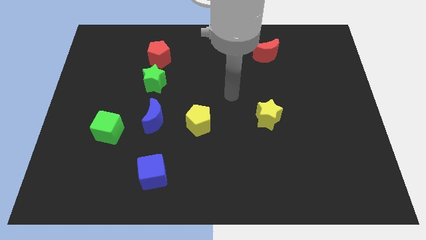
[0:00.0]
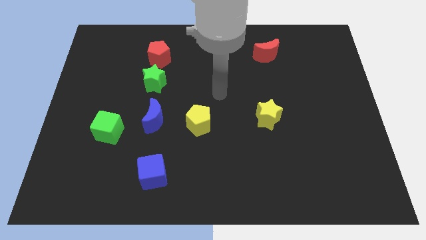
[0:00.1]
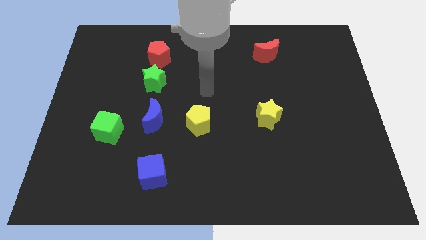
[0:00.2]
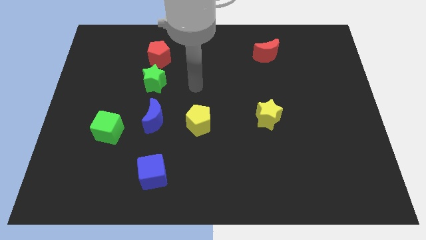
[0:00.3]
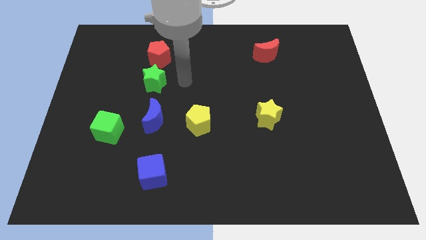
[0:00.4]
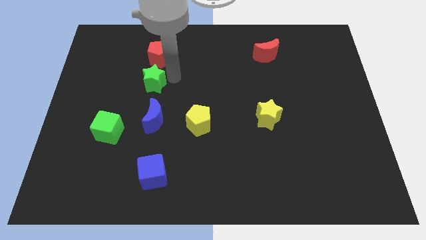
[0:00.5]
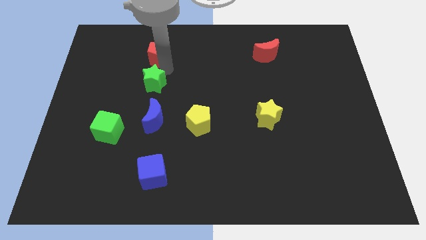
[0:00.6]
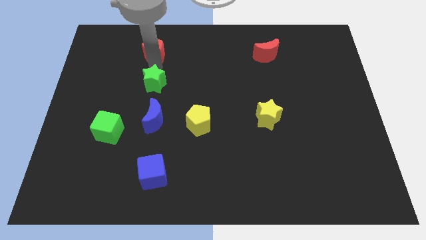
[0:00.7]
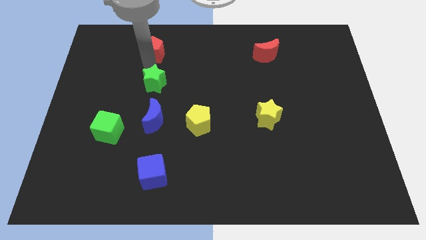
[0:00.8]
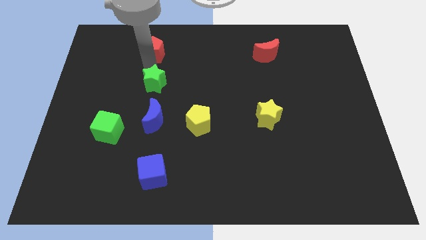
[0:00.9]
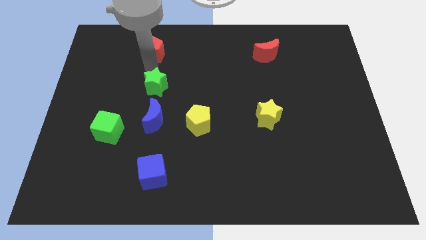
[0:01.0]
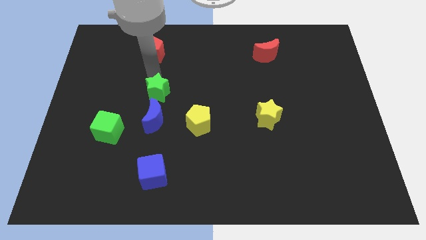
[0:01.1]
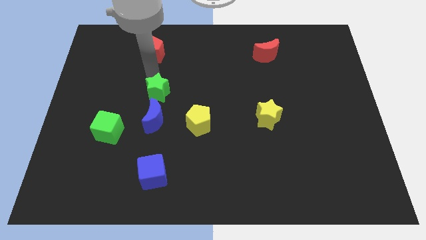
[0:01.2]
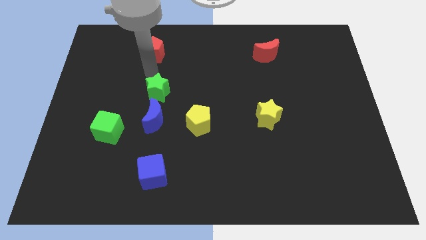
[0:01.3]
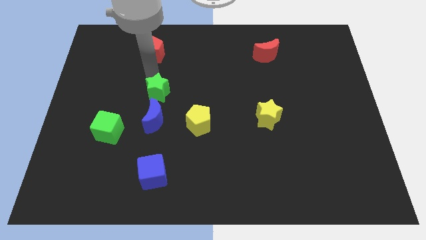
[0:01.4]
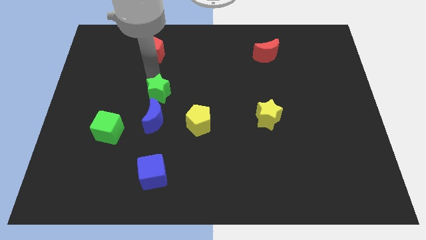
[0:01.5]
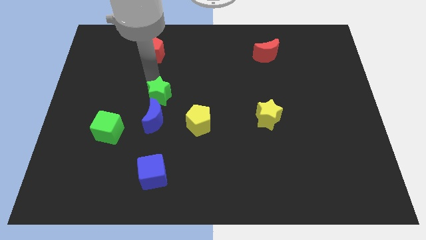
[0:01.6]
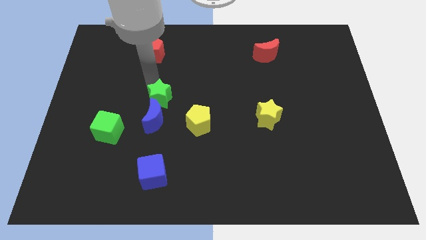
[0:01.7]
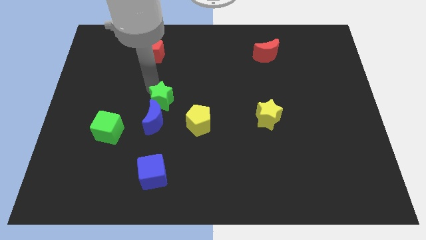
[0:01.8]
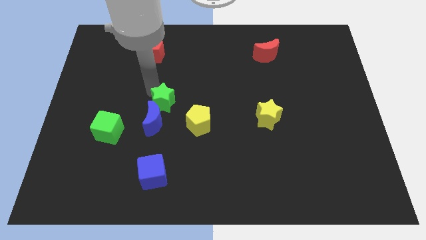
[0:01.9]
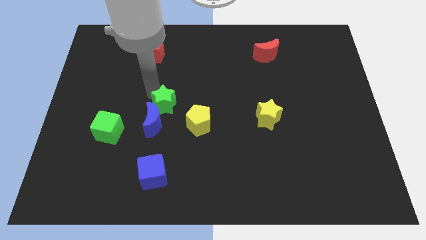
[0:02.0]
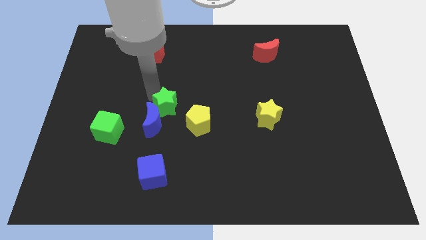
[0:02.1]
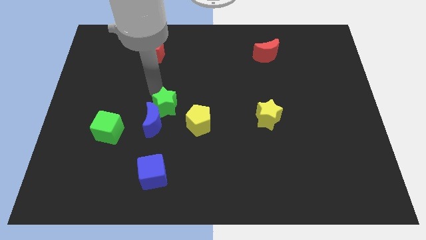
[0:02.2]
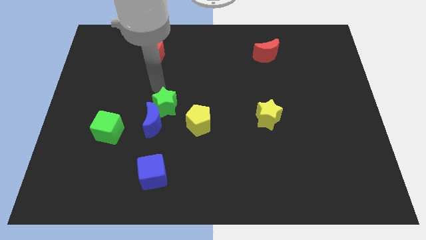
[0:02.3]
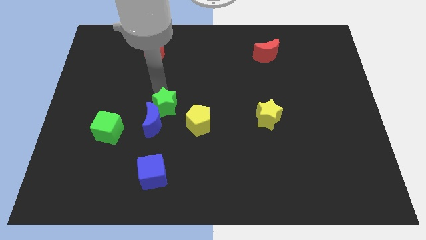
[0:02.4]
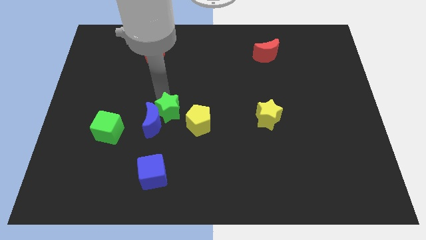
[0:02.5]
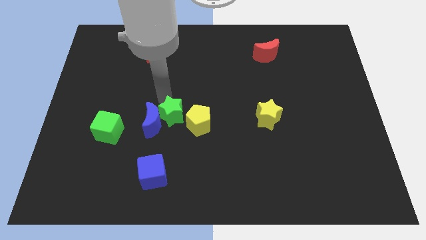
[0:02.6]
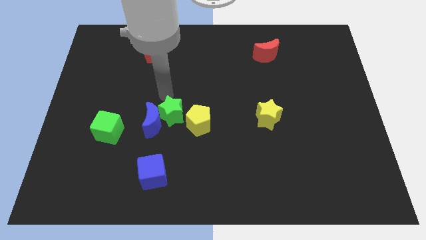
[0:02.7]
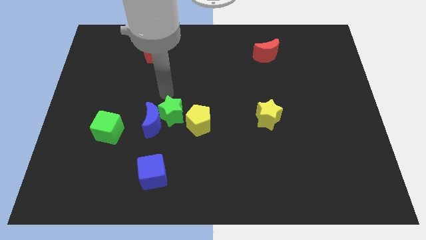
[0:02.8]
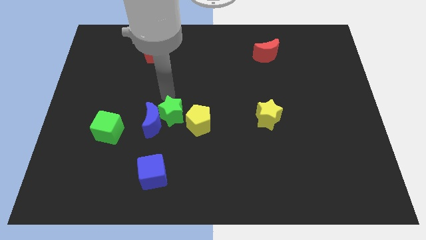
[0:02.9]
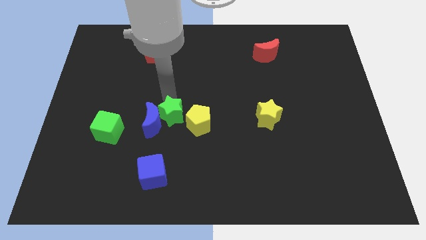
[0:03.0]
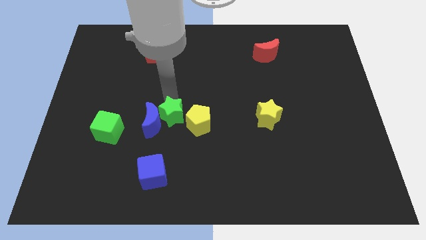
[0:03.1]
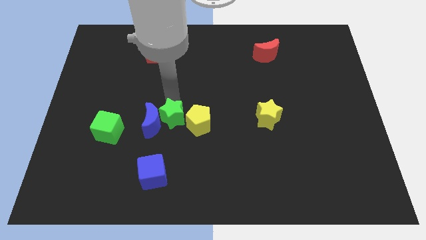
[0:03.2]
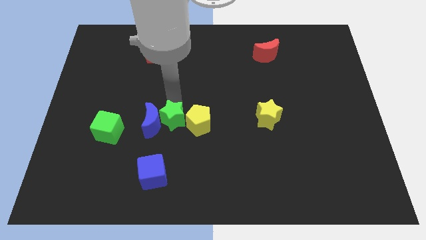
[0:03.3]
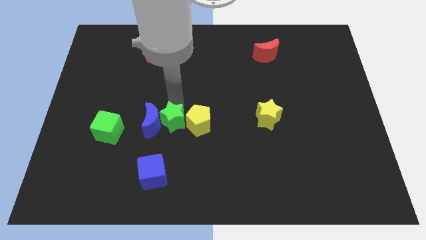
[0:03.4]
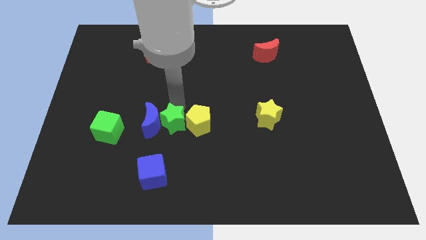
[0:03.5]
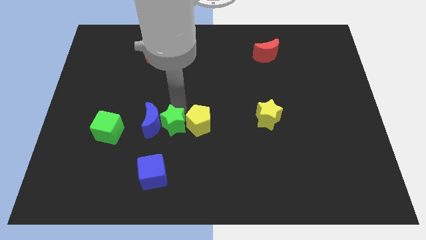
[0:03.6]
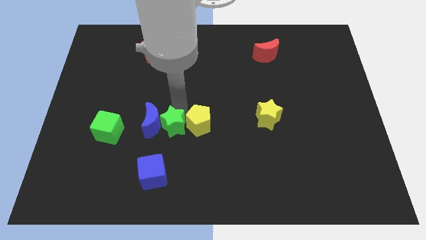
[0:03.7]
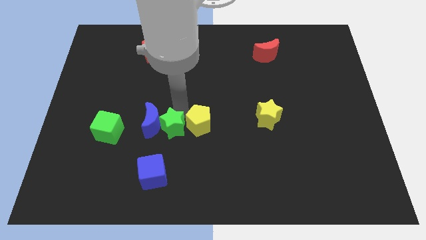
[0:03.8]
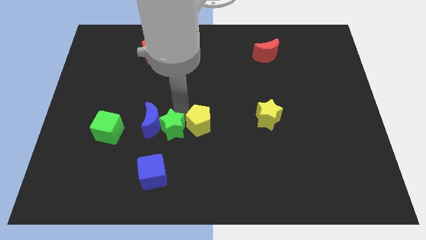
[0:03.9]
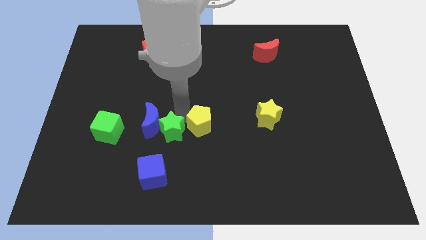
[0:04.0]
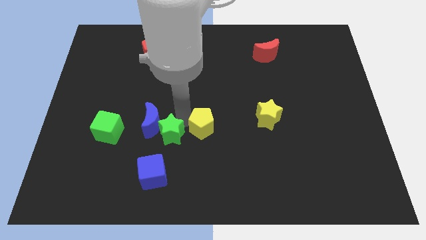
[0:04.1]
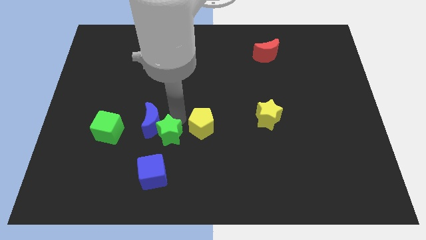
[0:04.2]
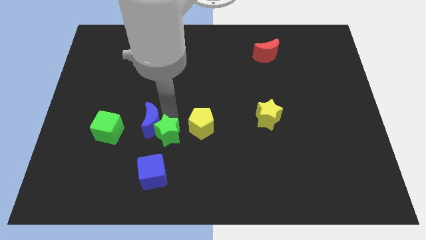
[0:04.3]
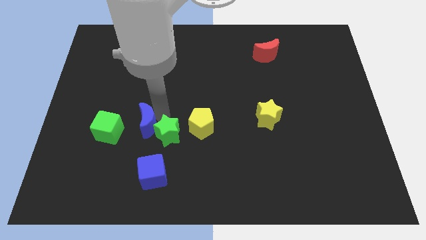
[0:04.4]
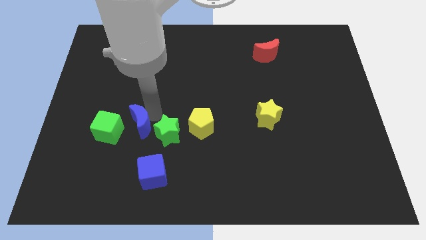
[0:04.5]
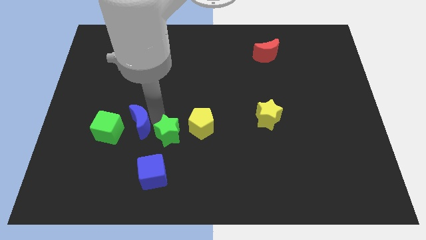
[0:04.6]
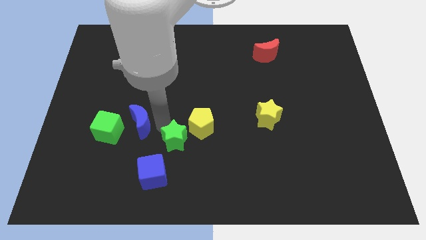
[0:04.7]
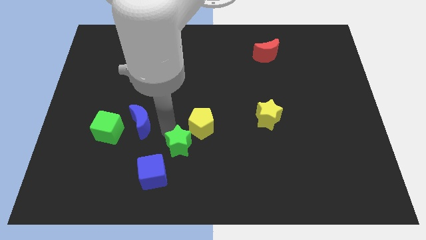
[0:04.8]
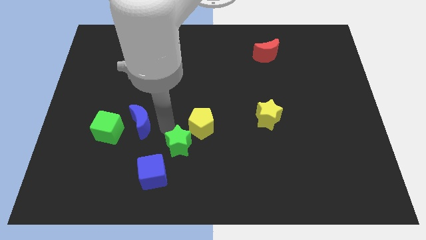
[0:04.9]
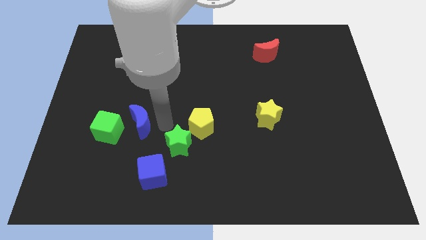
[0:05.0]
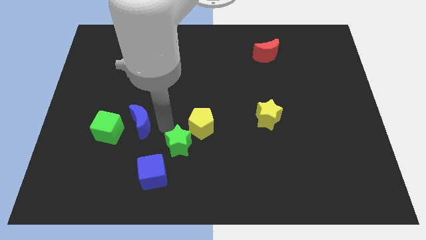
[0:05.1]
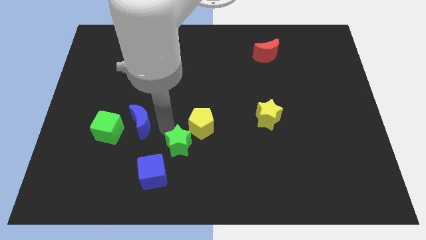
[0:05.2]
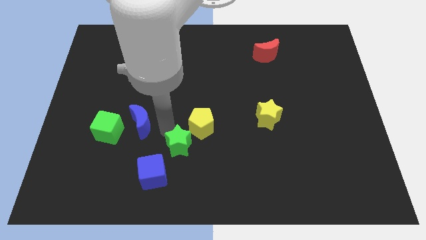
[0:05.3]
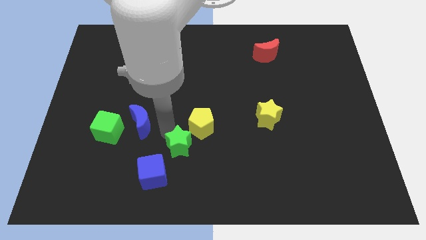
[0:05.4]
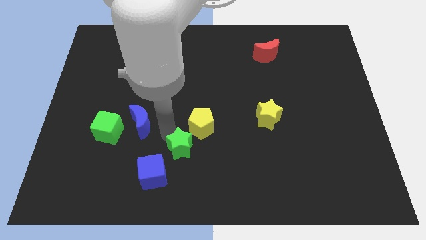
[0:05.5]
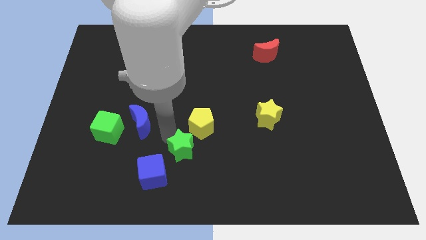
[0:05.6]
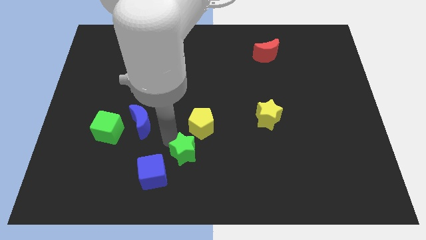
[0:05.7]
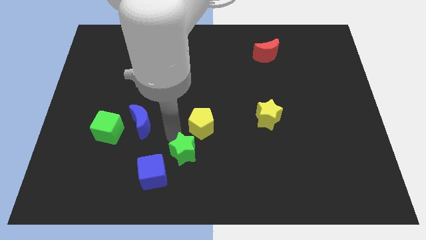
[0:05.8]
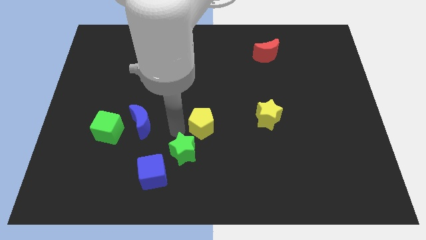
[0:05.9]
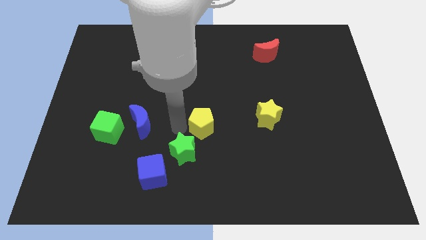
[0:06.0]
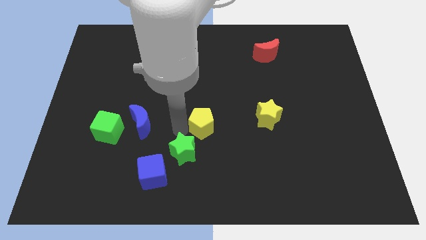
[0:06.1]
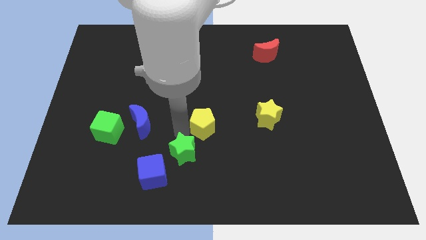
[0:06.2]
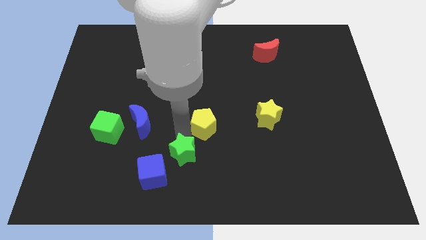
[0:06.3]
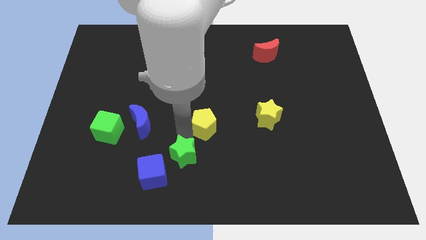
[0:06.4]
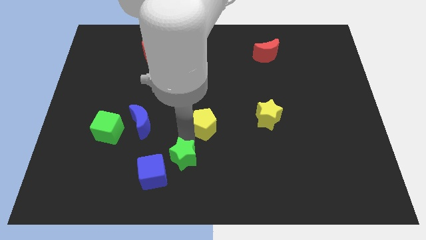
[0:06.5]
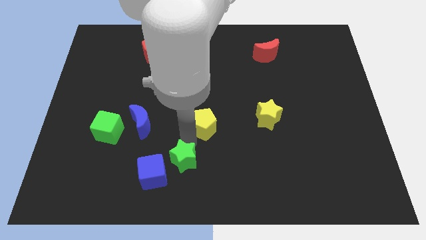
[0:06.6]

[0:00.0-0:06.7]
push the green star to the bottom side
